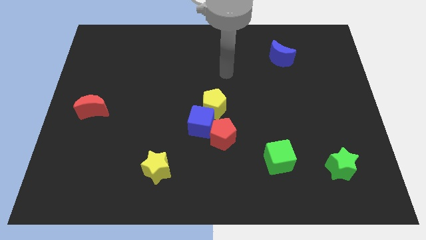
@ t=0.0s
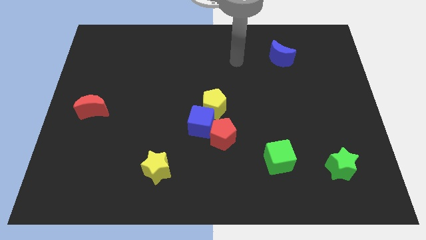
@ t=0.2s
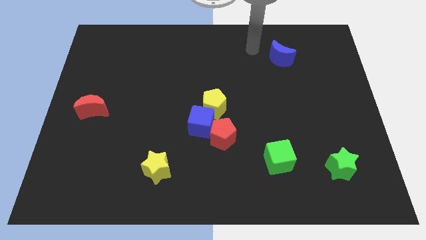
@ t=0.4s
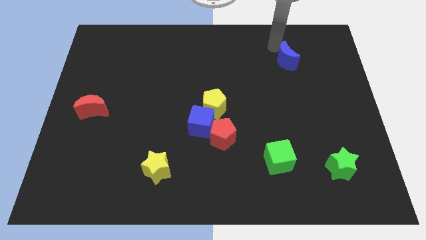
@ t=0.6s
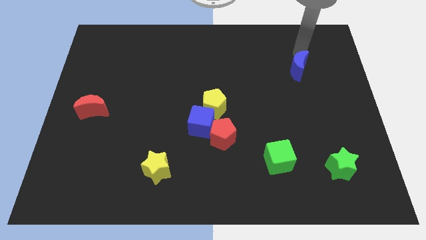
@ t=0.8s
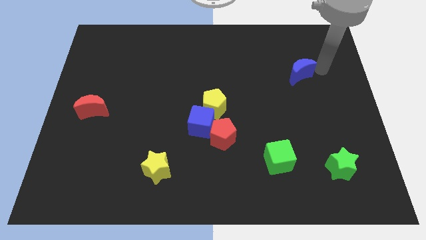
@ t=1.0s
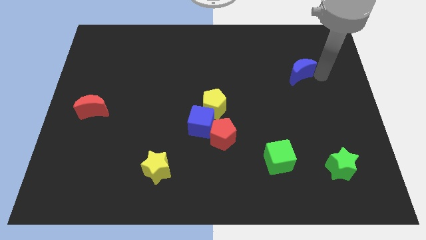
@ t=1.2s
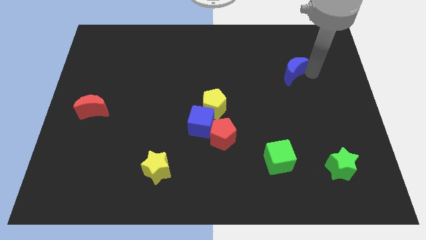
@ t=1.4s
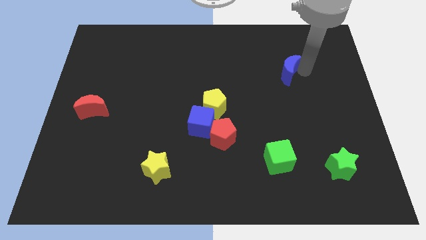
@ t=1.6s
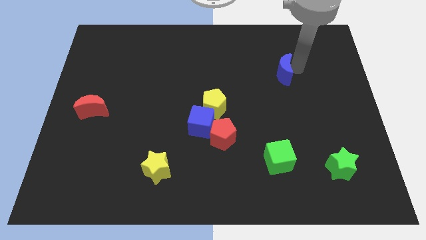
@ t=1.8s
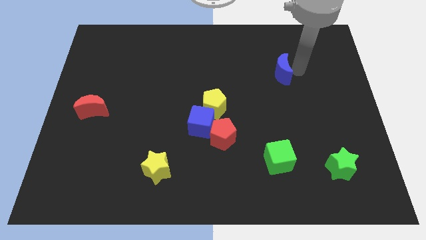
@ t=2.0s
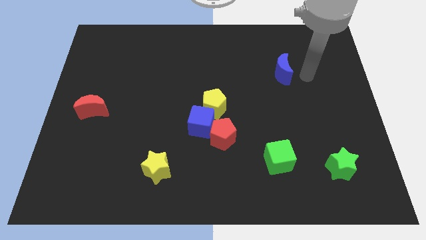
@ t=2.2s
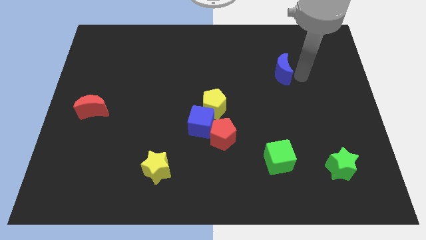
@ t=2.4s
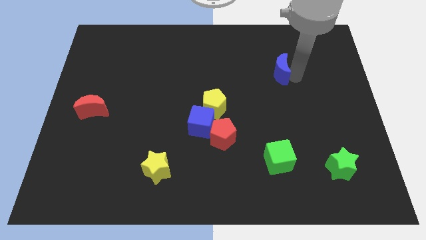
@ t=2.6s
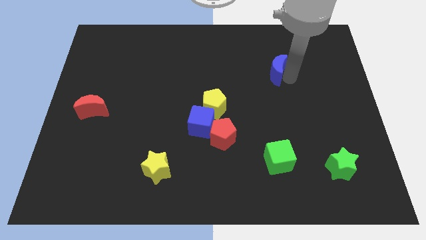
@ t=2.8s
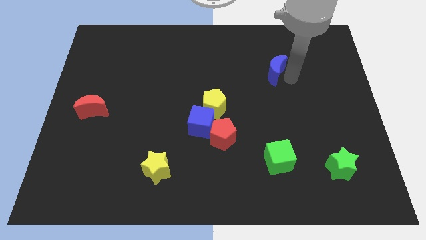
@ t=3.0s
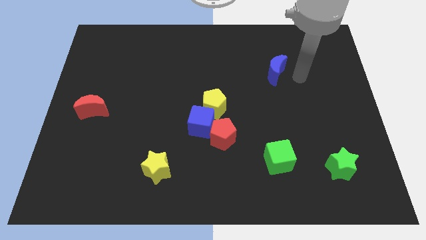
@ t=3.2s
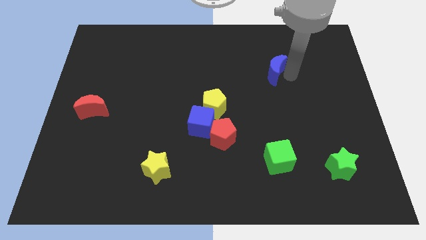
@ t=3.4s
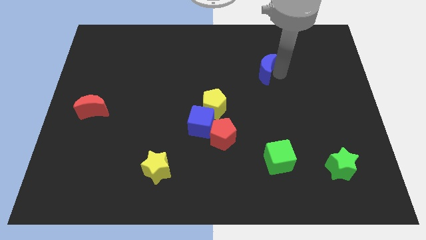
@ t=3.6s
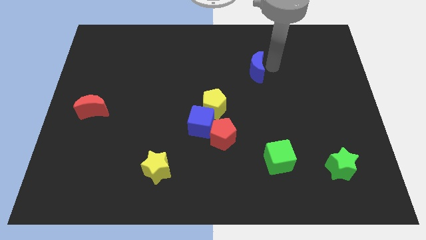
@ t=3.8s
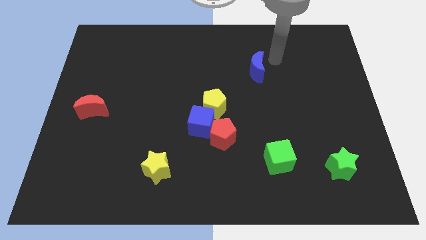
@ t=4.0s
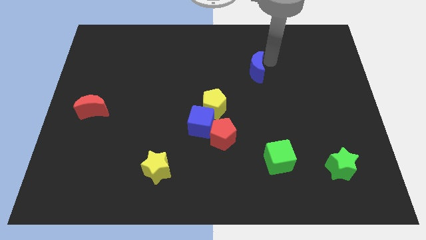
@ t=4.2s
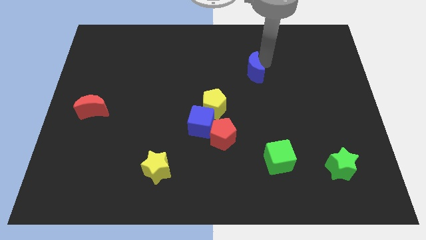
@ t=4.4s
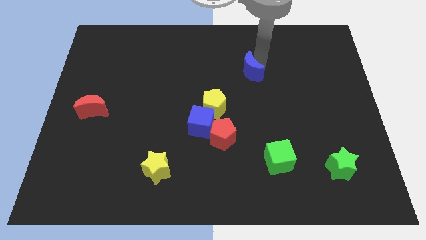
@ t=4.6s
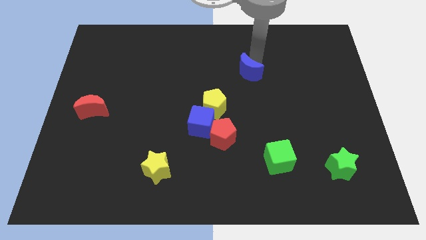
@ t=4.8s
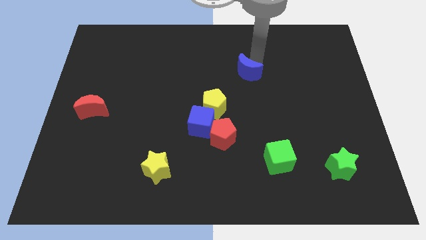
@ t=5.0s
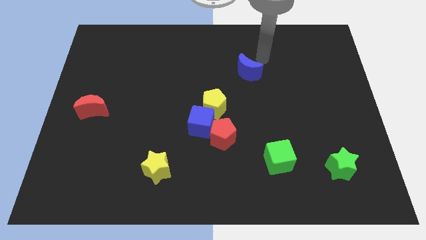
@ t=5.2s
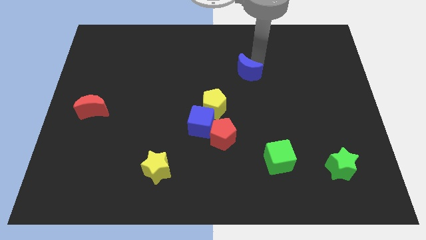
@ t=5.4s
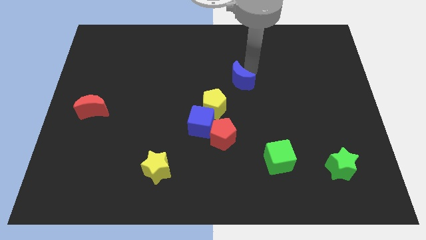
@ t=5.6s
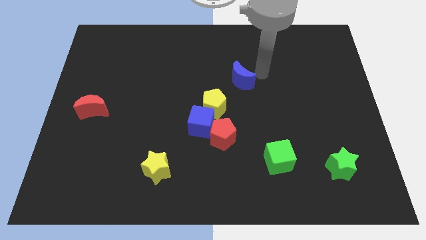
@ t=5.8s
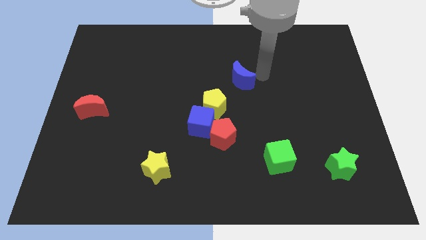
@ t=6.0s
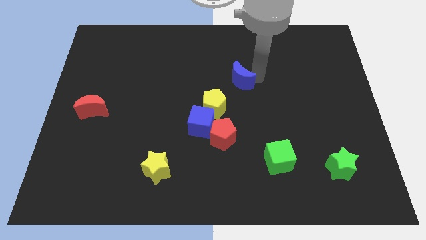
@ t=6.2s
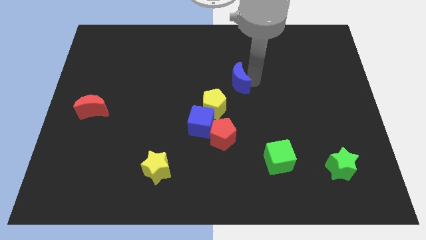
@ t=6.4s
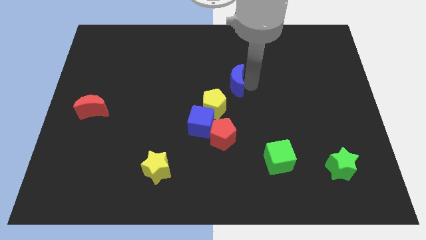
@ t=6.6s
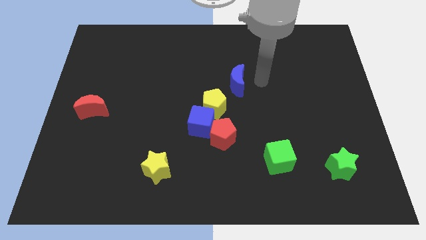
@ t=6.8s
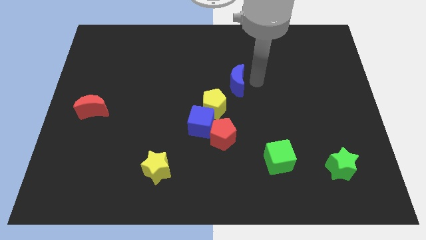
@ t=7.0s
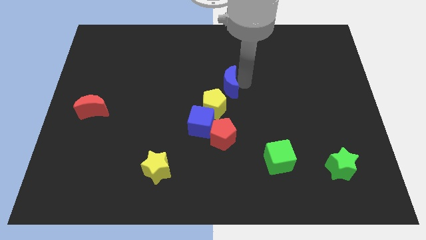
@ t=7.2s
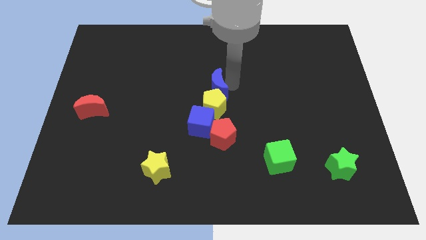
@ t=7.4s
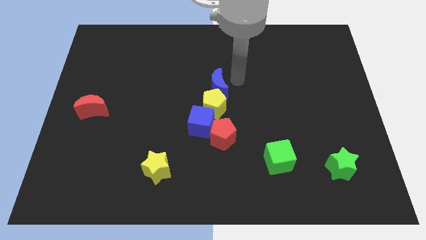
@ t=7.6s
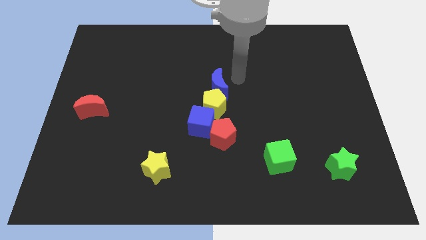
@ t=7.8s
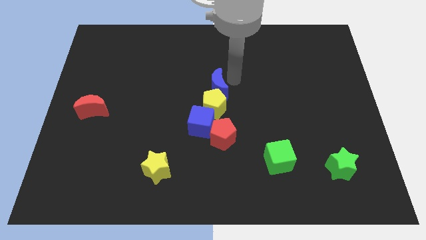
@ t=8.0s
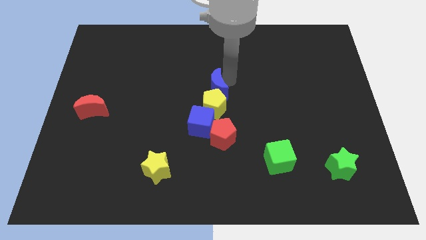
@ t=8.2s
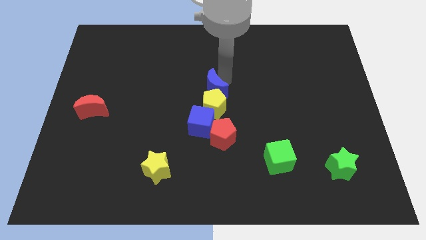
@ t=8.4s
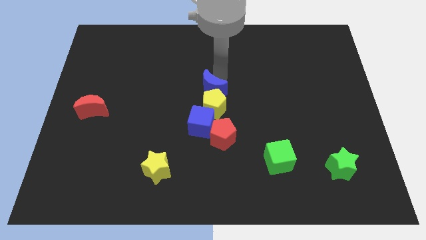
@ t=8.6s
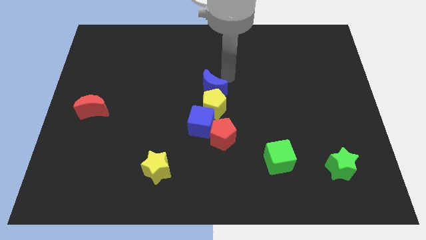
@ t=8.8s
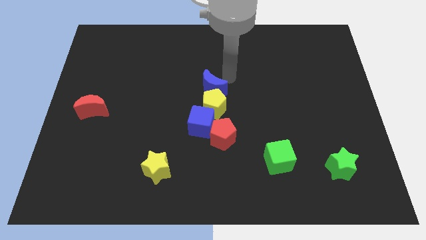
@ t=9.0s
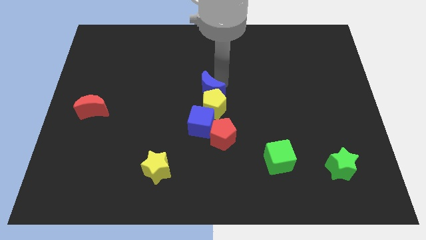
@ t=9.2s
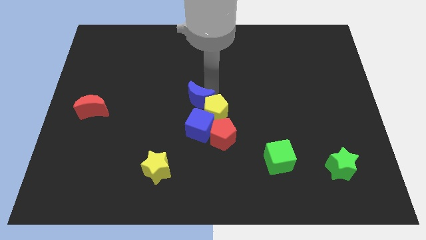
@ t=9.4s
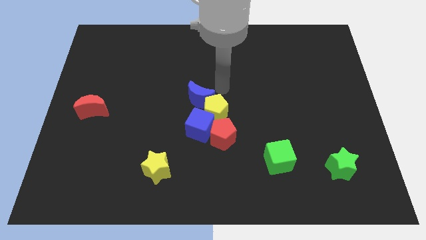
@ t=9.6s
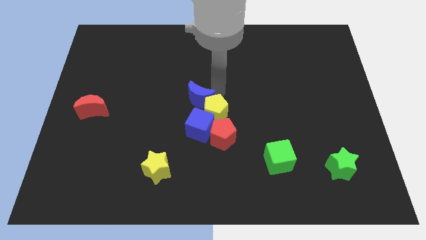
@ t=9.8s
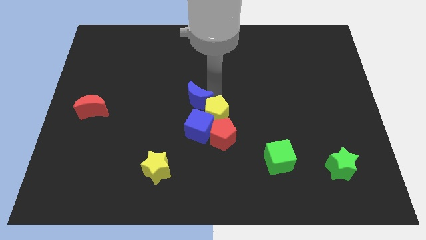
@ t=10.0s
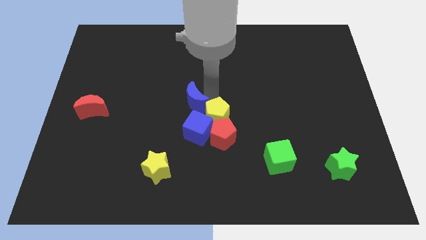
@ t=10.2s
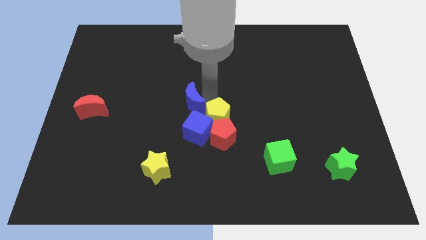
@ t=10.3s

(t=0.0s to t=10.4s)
move the blue moon diagonally up and to the left of the blue cube

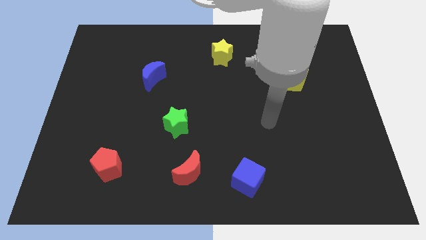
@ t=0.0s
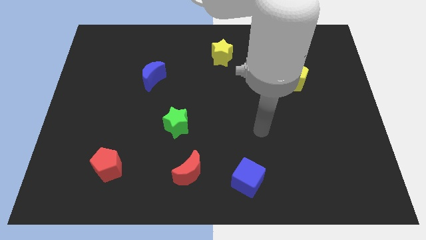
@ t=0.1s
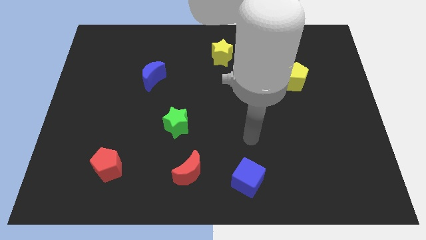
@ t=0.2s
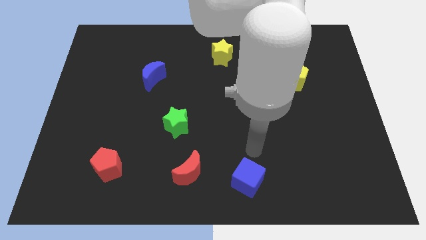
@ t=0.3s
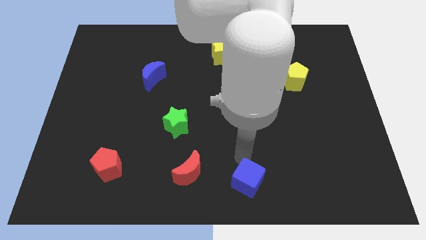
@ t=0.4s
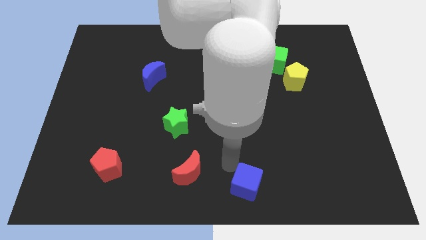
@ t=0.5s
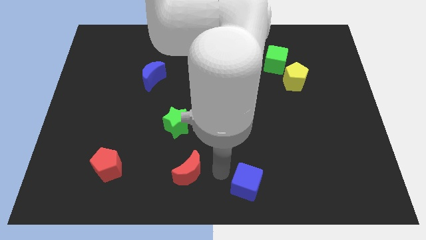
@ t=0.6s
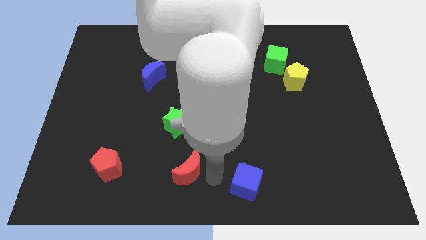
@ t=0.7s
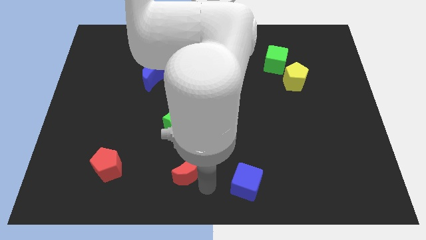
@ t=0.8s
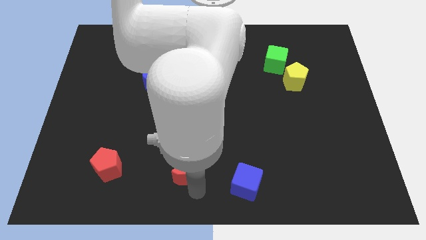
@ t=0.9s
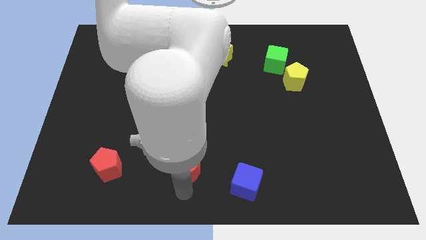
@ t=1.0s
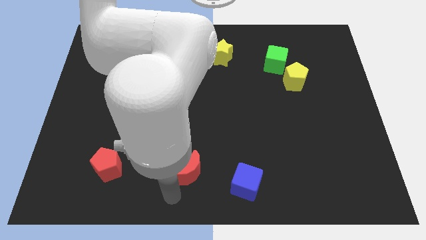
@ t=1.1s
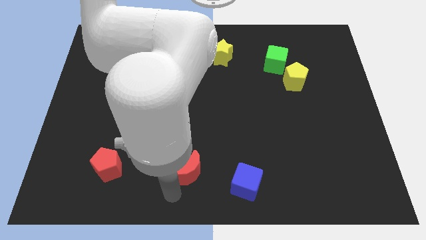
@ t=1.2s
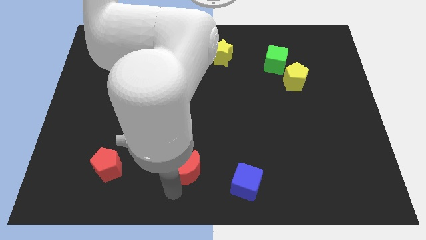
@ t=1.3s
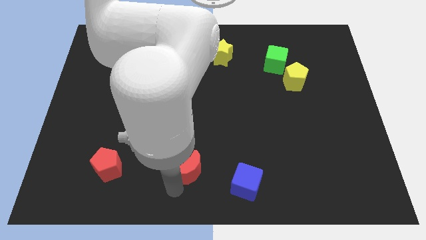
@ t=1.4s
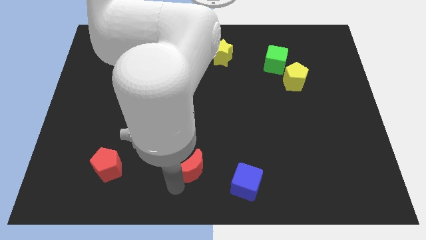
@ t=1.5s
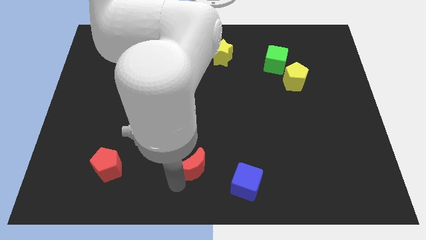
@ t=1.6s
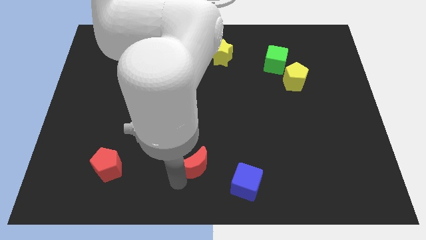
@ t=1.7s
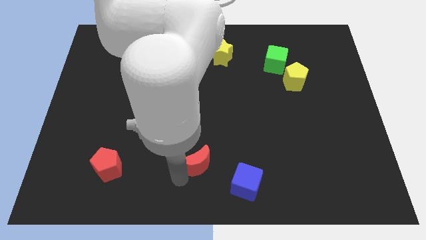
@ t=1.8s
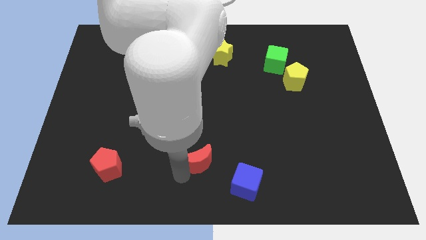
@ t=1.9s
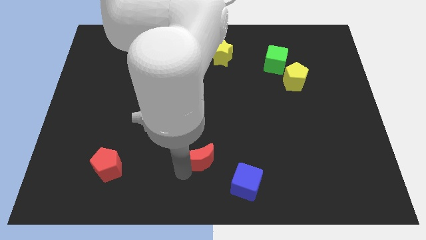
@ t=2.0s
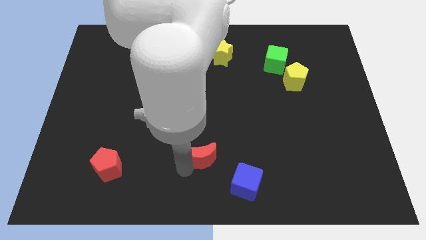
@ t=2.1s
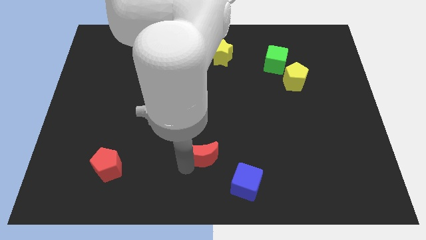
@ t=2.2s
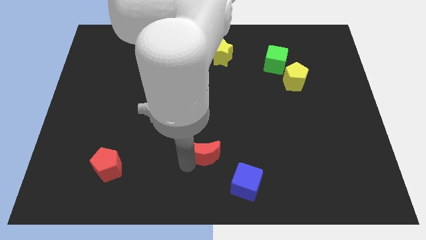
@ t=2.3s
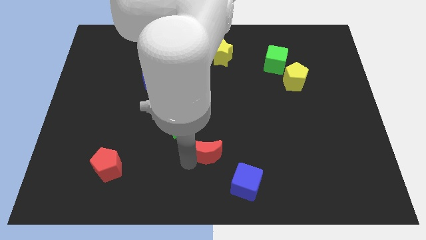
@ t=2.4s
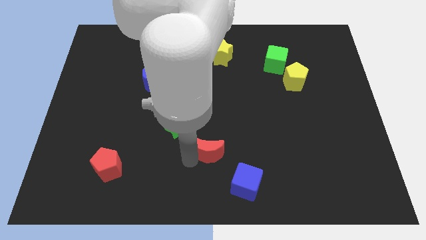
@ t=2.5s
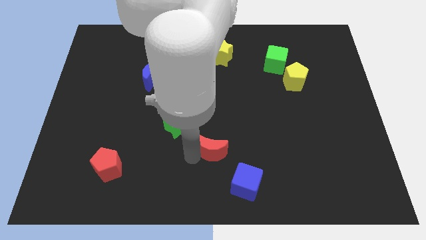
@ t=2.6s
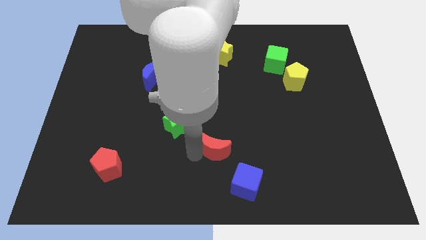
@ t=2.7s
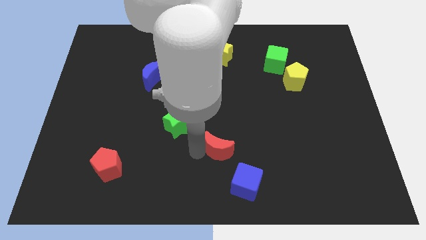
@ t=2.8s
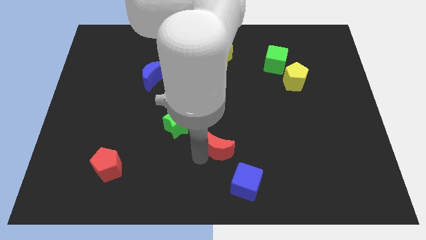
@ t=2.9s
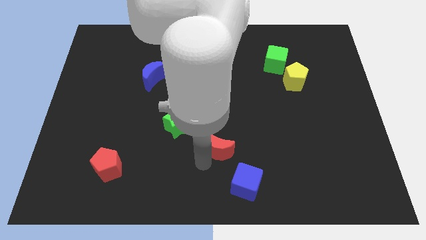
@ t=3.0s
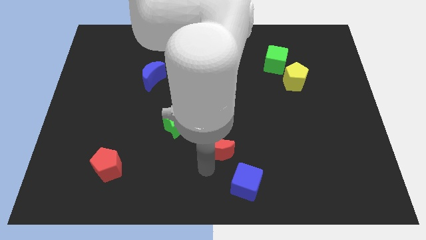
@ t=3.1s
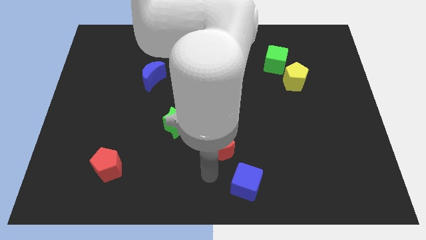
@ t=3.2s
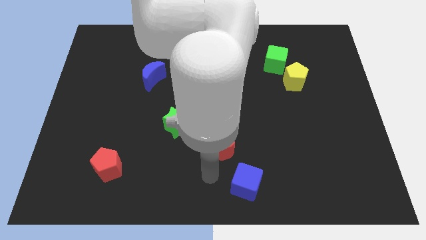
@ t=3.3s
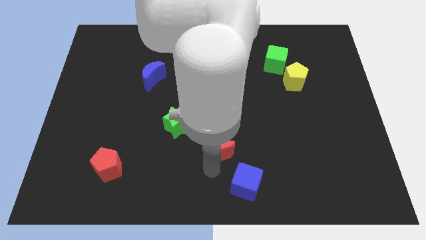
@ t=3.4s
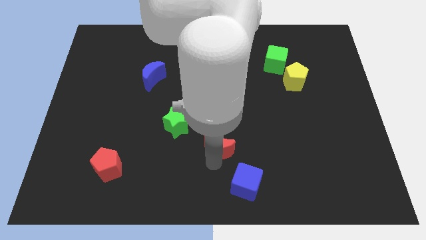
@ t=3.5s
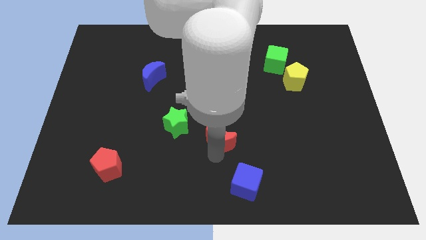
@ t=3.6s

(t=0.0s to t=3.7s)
put the red moon just right of the green star
